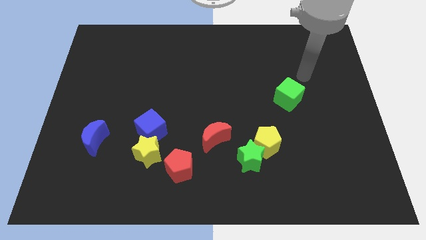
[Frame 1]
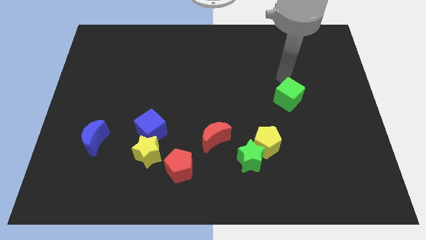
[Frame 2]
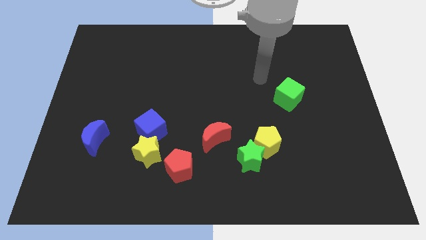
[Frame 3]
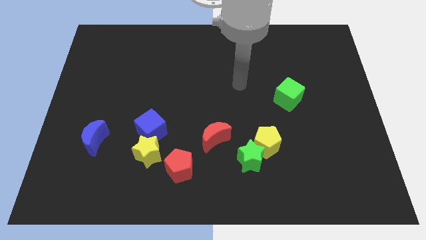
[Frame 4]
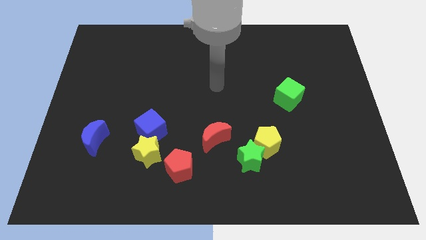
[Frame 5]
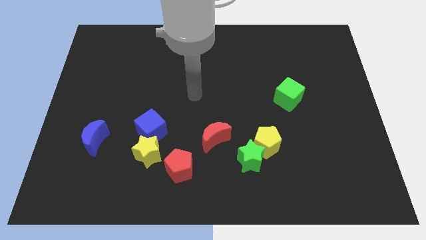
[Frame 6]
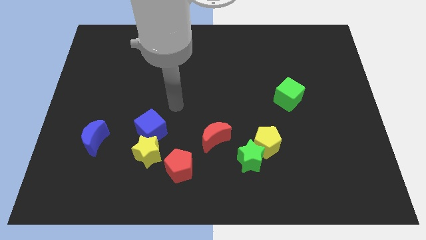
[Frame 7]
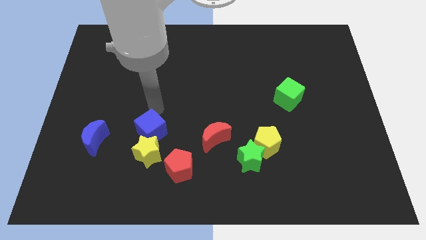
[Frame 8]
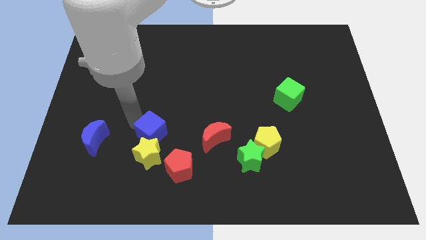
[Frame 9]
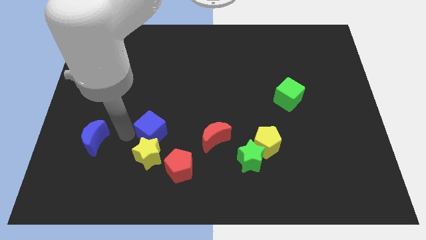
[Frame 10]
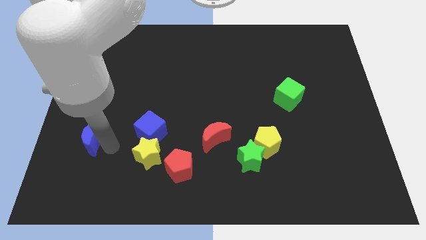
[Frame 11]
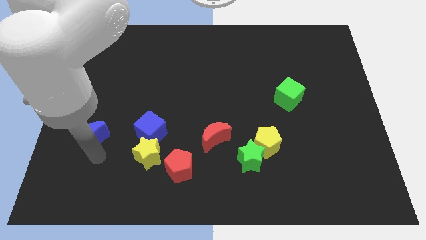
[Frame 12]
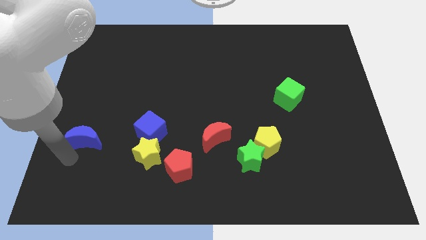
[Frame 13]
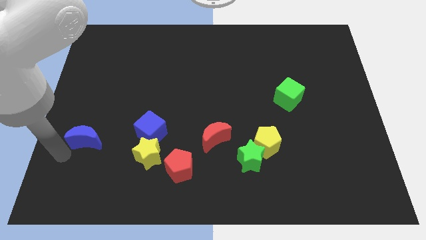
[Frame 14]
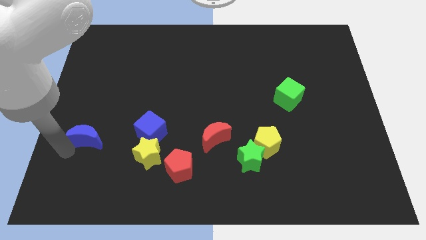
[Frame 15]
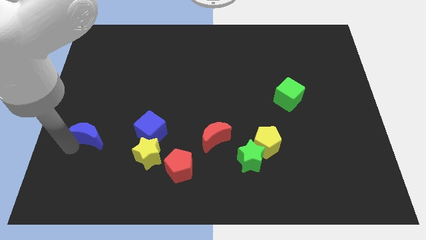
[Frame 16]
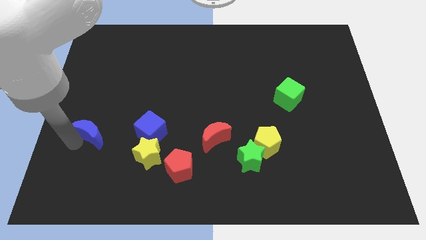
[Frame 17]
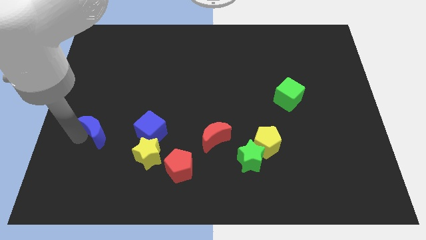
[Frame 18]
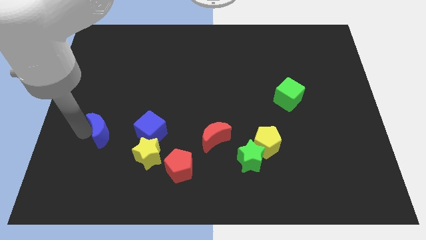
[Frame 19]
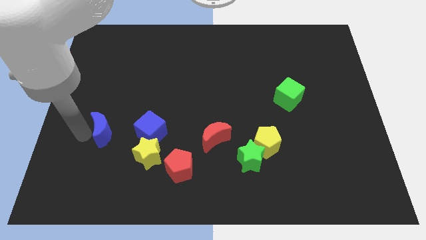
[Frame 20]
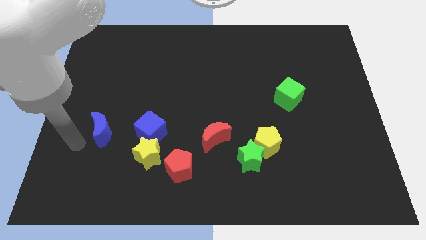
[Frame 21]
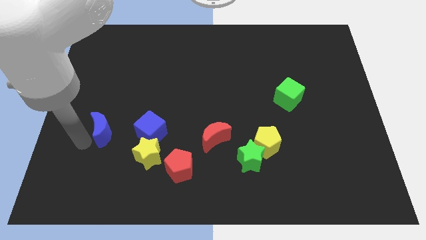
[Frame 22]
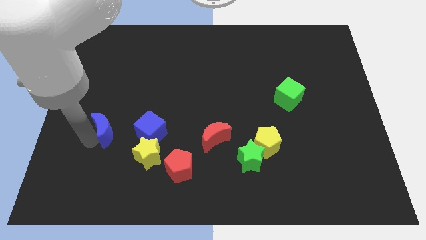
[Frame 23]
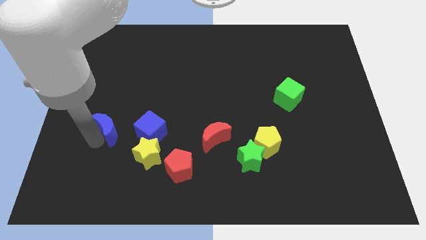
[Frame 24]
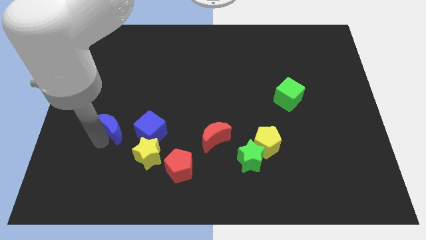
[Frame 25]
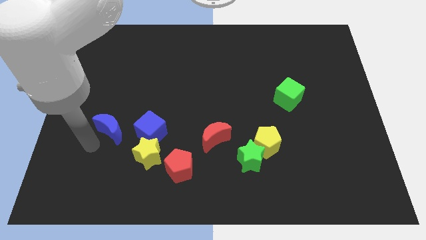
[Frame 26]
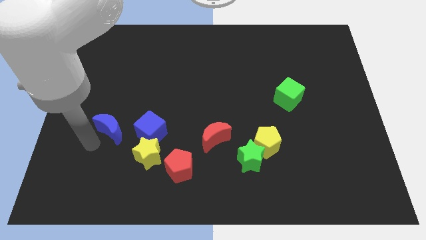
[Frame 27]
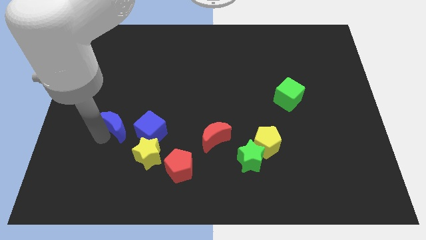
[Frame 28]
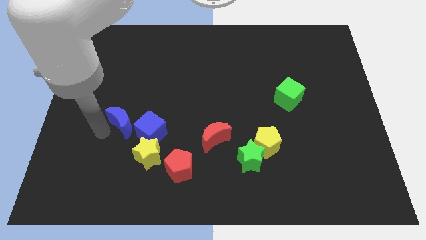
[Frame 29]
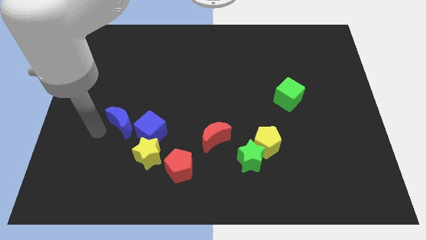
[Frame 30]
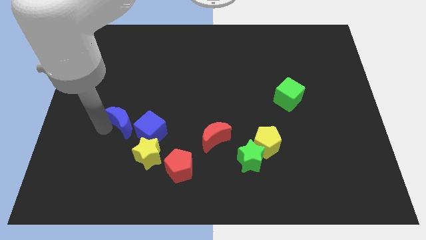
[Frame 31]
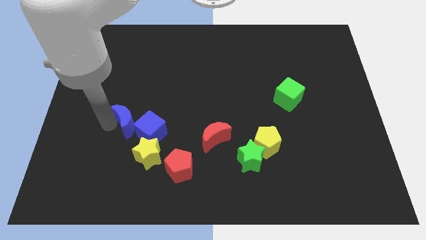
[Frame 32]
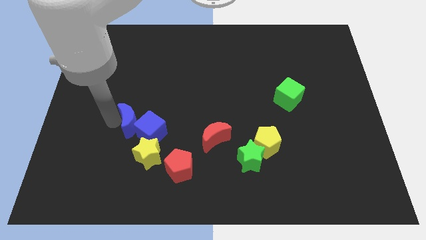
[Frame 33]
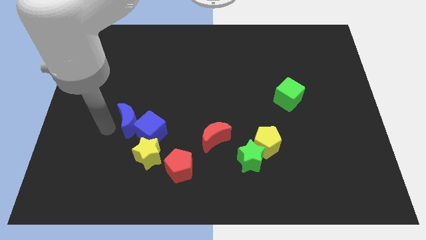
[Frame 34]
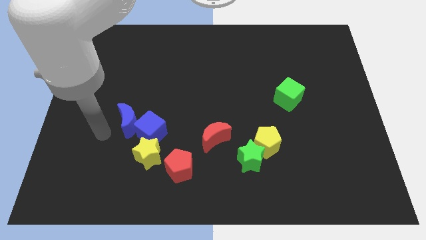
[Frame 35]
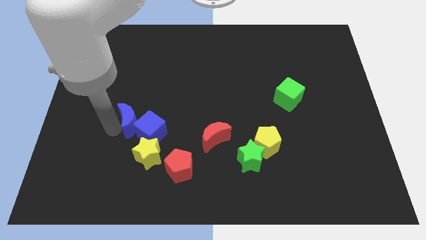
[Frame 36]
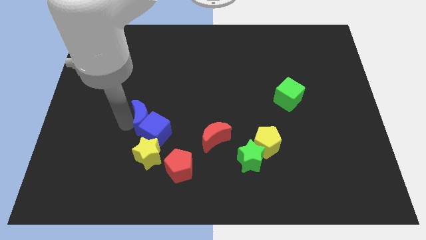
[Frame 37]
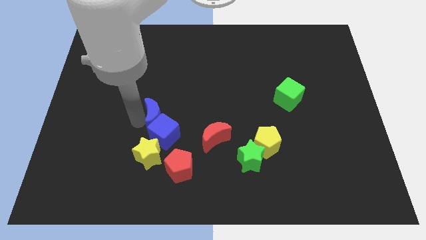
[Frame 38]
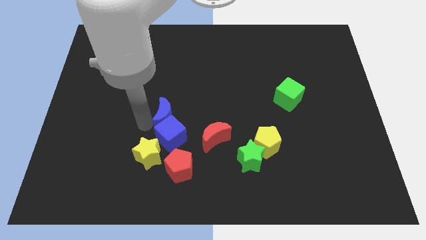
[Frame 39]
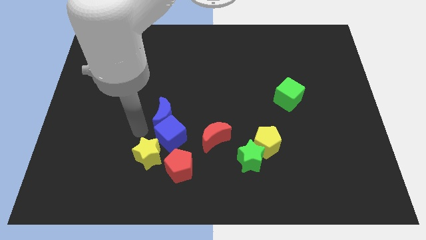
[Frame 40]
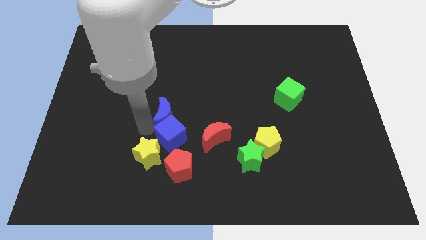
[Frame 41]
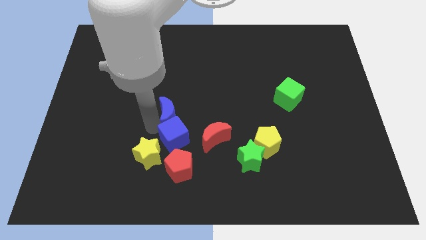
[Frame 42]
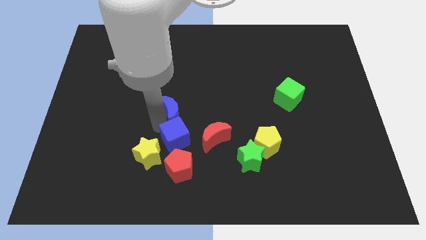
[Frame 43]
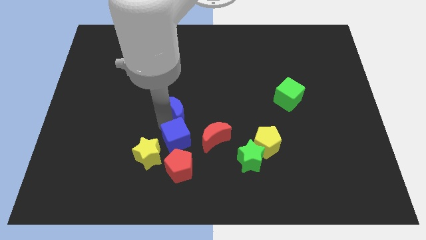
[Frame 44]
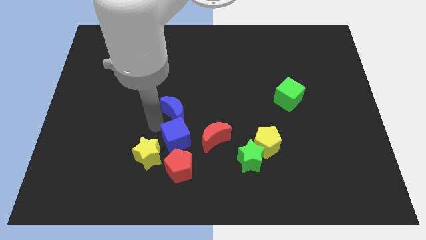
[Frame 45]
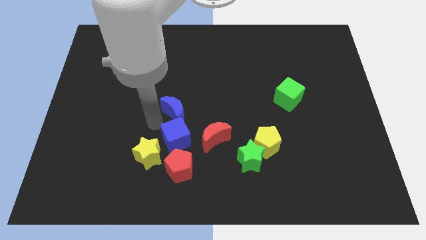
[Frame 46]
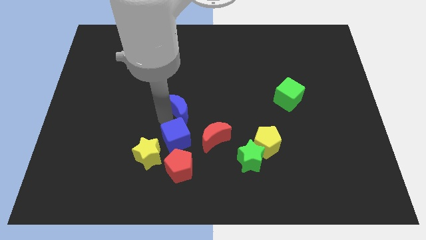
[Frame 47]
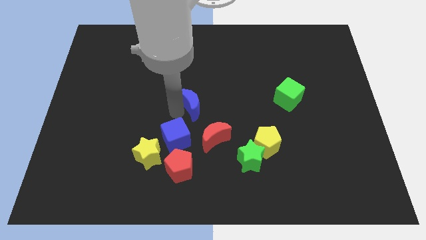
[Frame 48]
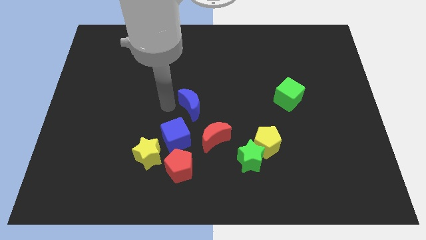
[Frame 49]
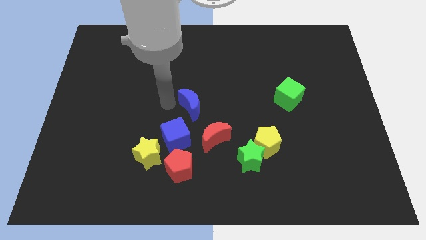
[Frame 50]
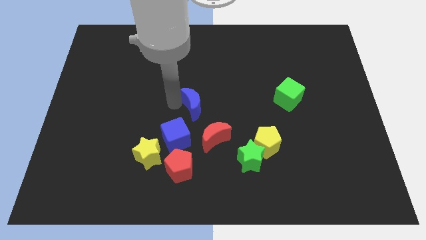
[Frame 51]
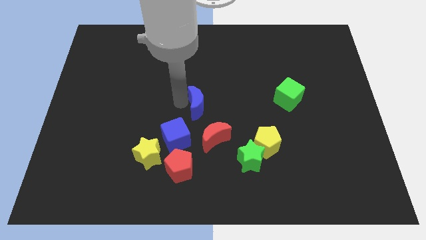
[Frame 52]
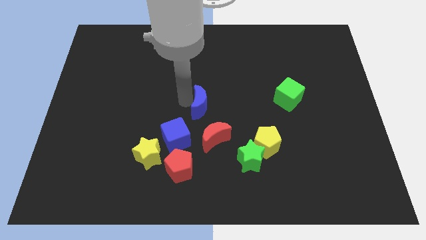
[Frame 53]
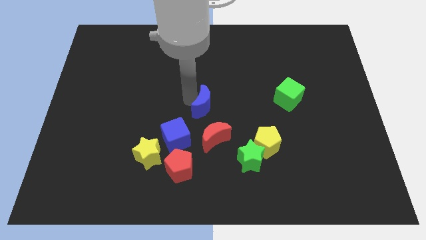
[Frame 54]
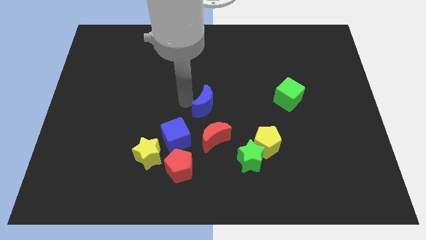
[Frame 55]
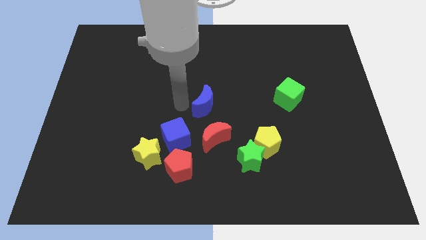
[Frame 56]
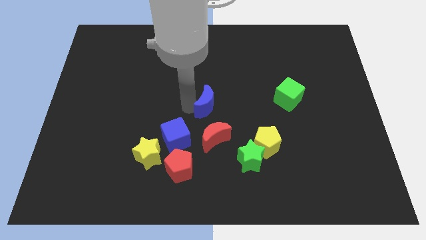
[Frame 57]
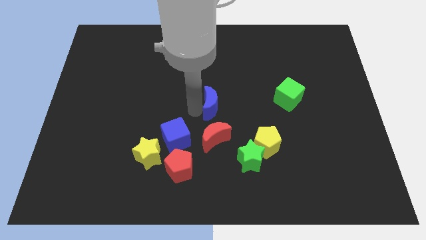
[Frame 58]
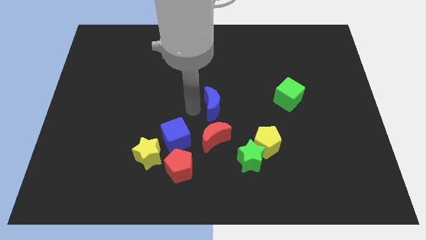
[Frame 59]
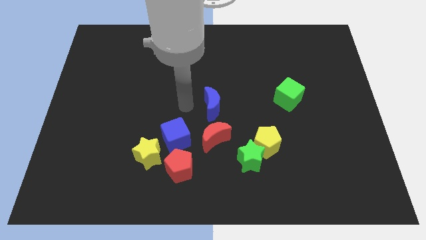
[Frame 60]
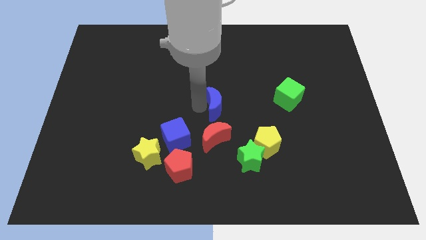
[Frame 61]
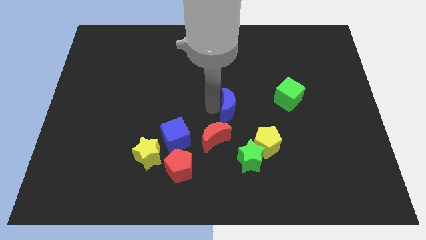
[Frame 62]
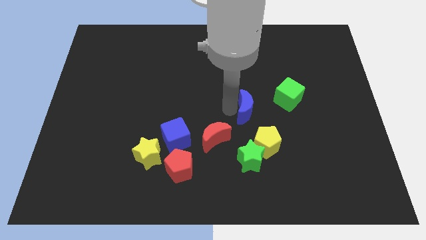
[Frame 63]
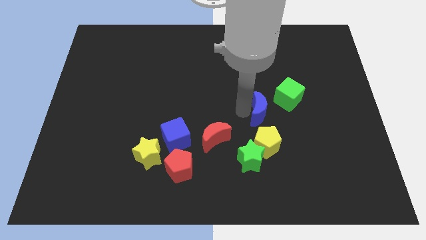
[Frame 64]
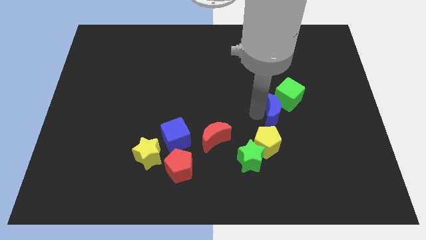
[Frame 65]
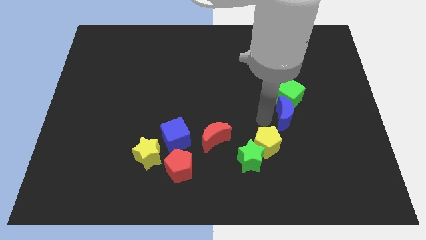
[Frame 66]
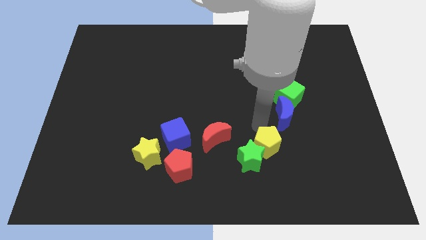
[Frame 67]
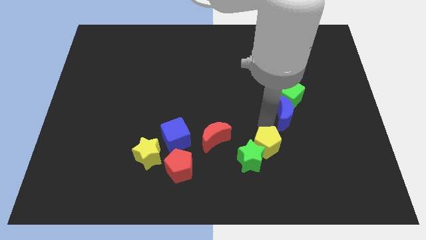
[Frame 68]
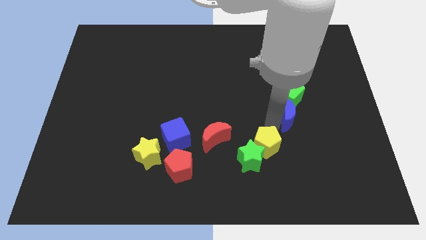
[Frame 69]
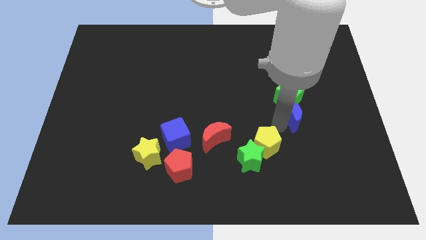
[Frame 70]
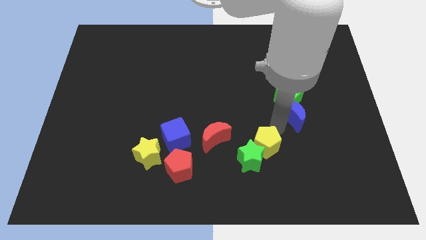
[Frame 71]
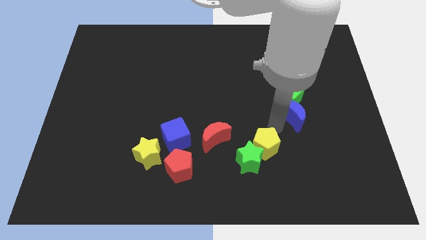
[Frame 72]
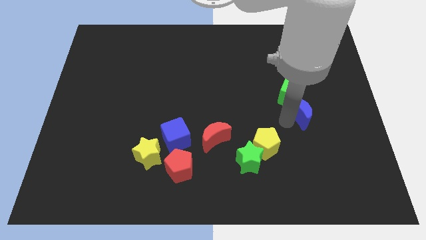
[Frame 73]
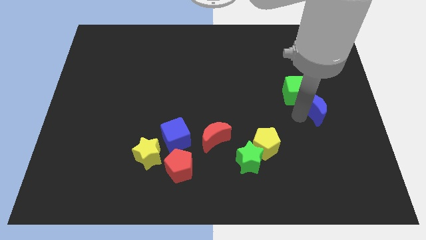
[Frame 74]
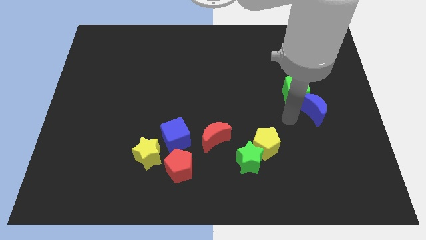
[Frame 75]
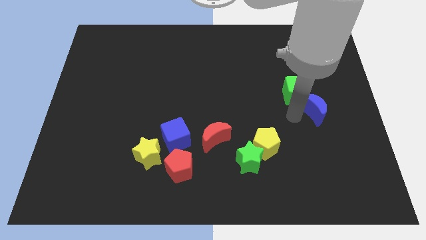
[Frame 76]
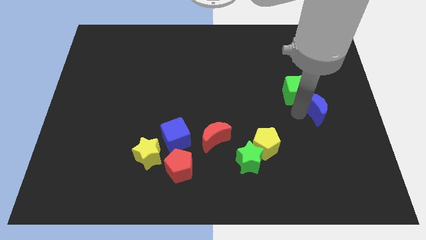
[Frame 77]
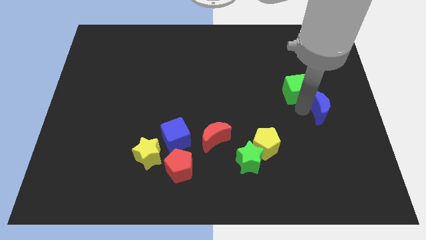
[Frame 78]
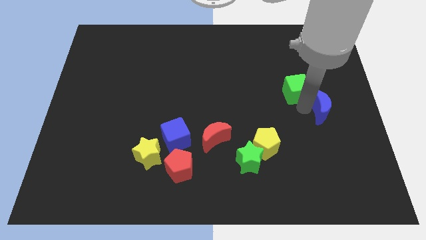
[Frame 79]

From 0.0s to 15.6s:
push the blue moon to the center right
